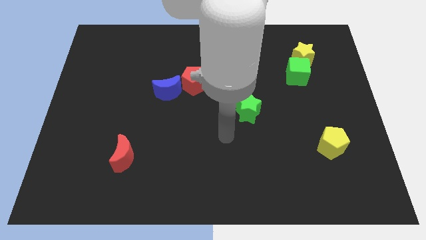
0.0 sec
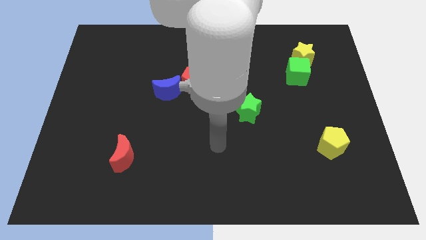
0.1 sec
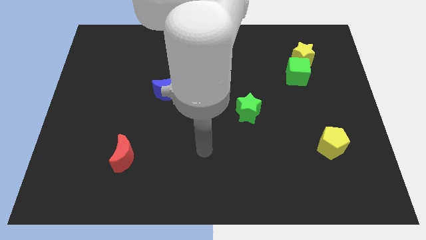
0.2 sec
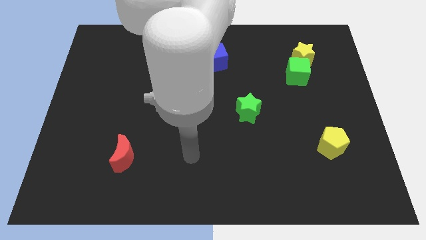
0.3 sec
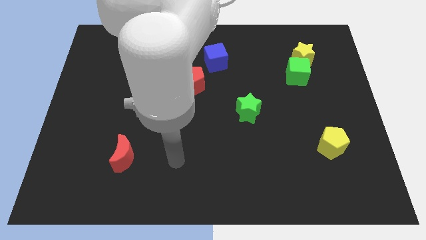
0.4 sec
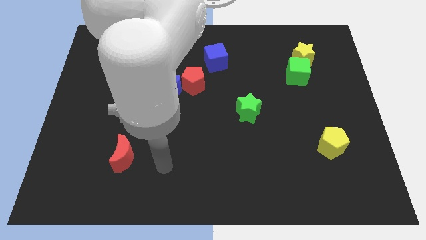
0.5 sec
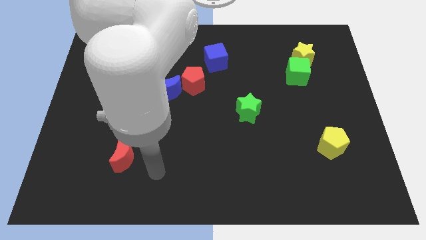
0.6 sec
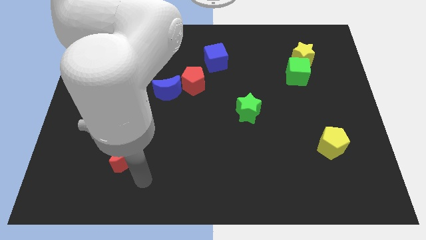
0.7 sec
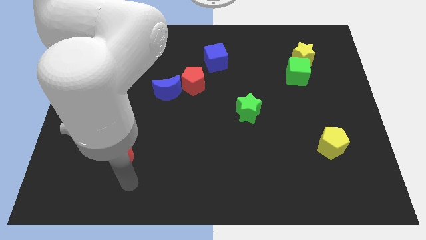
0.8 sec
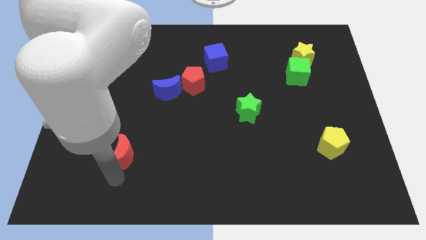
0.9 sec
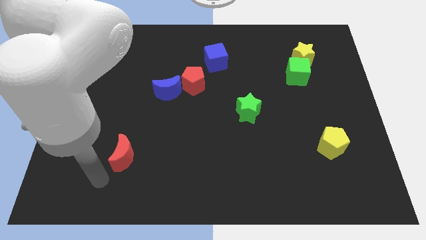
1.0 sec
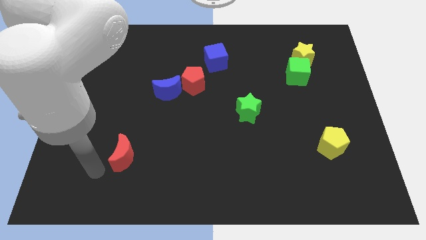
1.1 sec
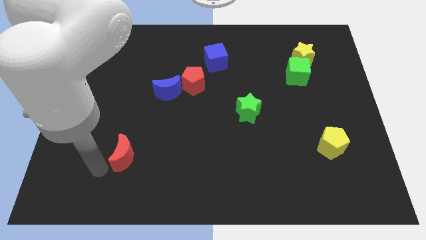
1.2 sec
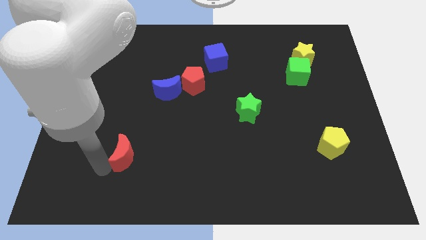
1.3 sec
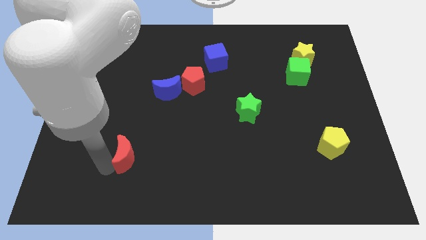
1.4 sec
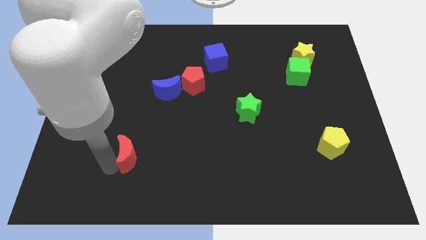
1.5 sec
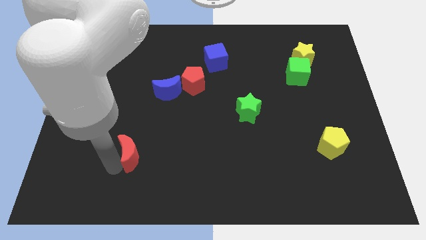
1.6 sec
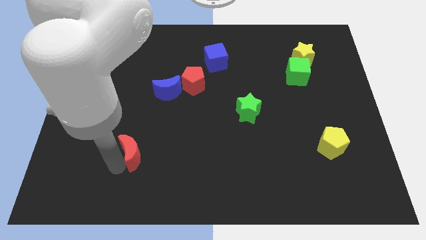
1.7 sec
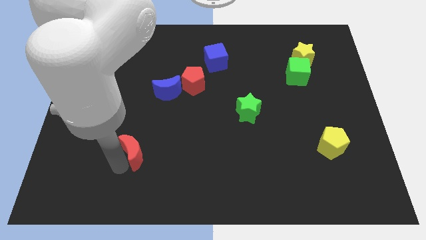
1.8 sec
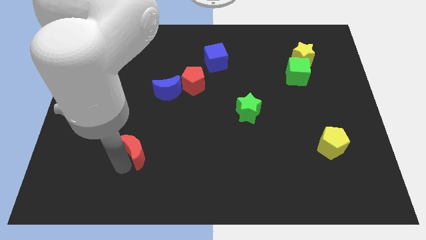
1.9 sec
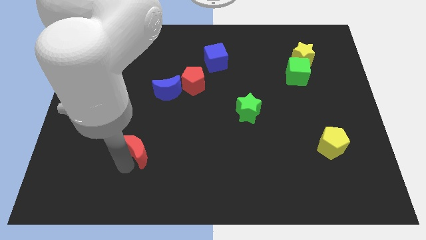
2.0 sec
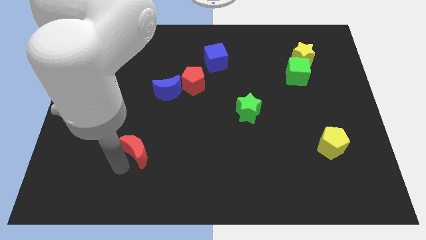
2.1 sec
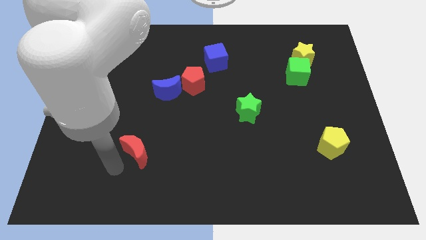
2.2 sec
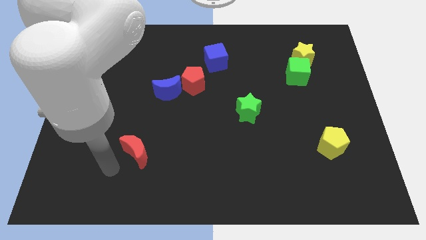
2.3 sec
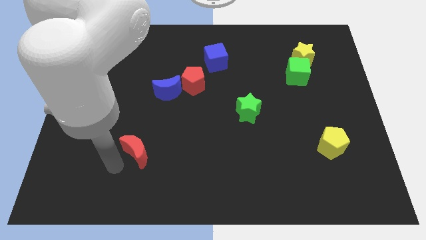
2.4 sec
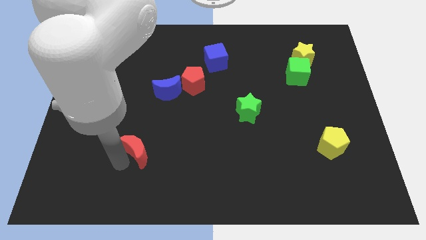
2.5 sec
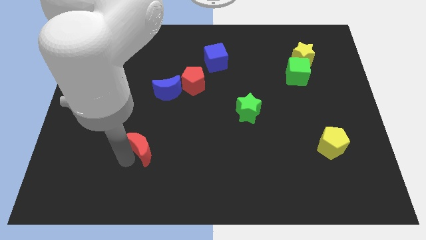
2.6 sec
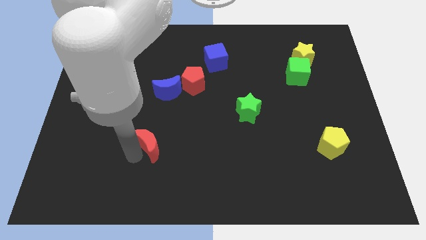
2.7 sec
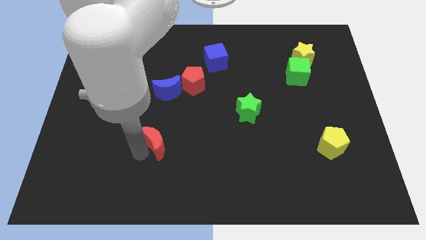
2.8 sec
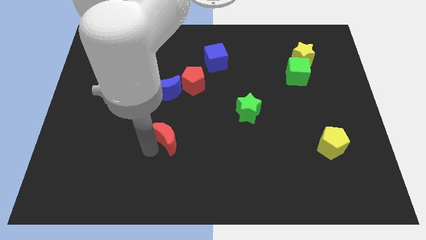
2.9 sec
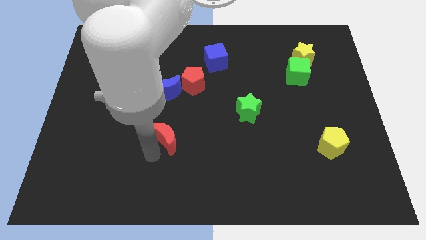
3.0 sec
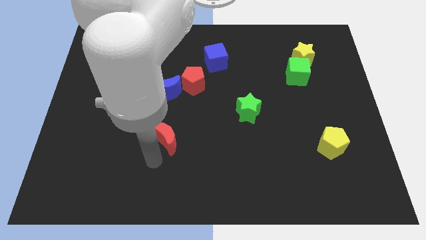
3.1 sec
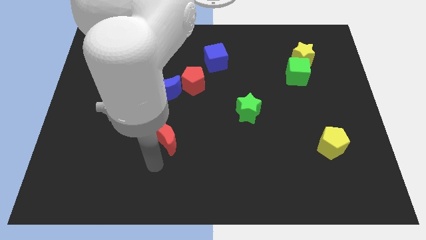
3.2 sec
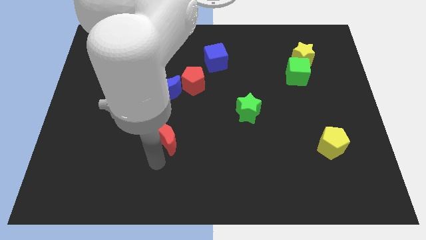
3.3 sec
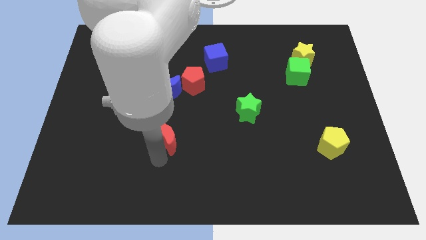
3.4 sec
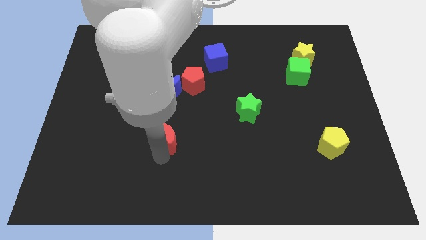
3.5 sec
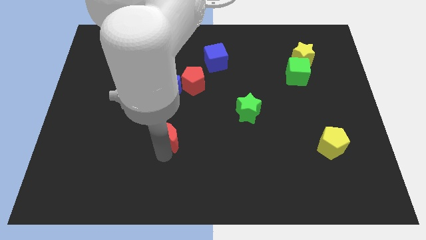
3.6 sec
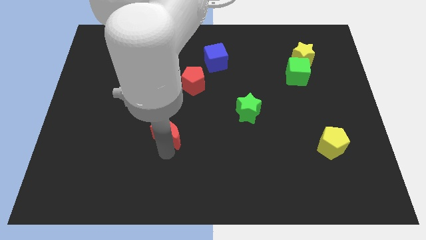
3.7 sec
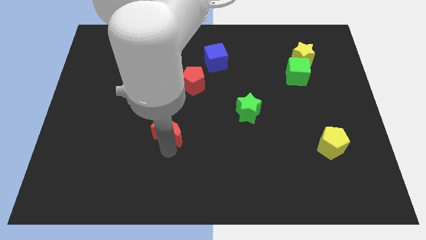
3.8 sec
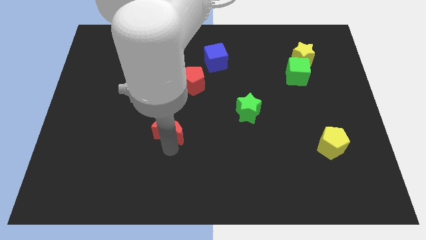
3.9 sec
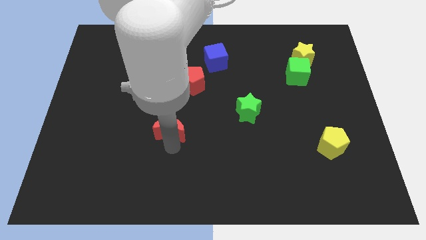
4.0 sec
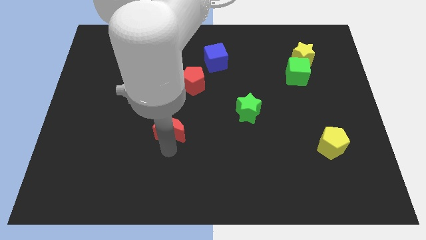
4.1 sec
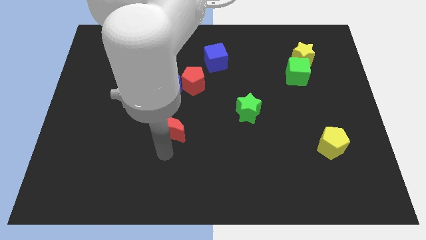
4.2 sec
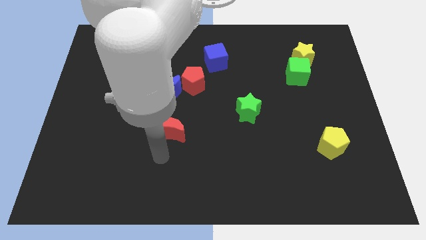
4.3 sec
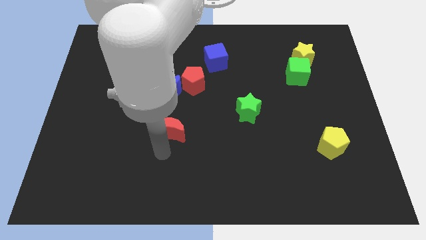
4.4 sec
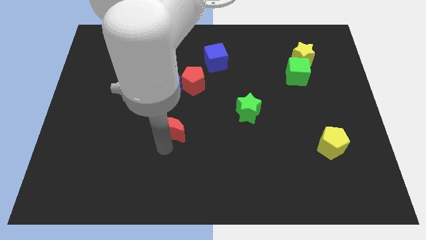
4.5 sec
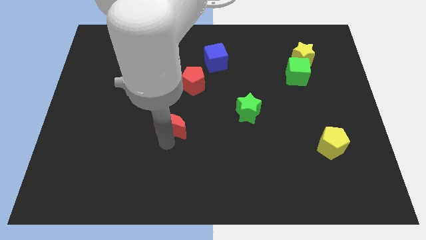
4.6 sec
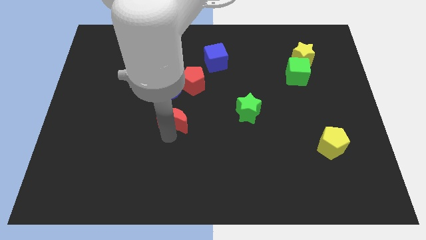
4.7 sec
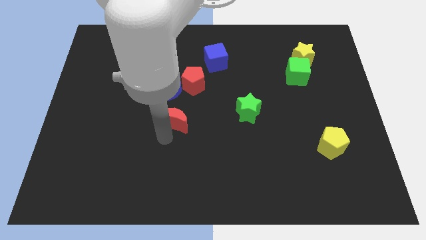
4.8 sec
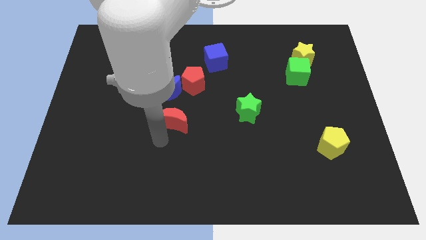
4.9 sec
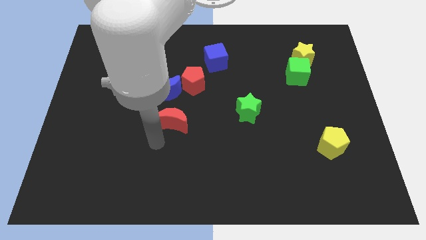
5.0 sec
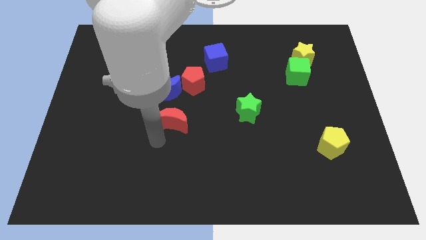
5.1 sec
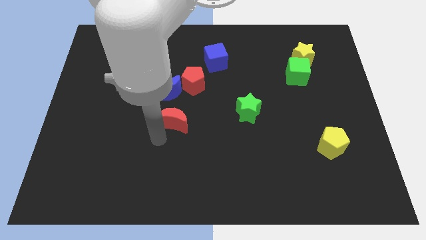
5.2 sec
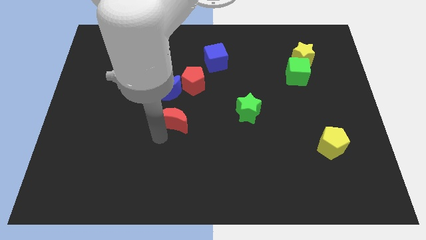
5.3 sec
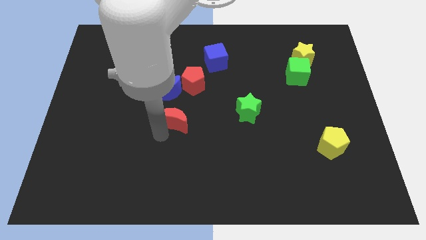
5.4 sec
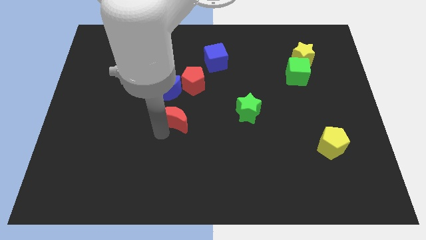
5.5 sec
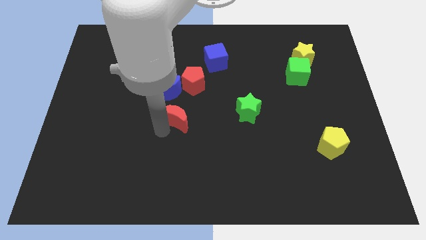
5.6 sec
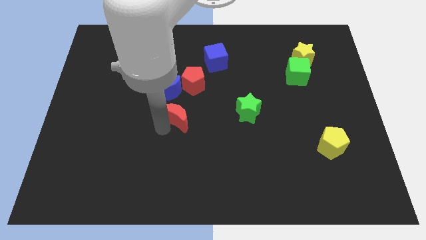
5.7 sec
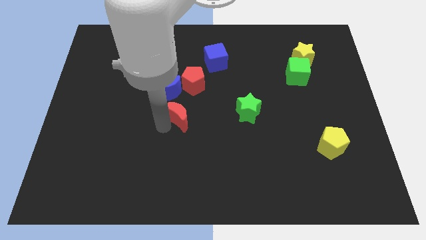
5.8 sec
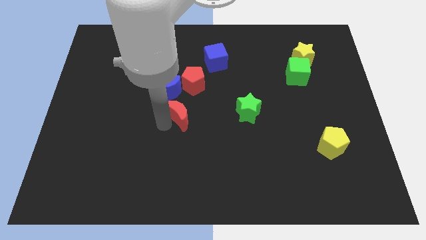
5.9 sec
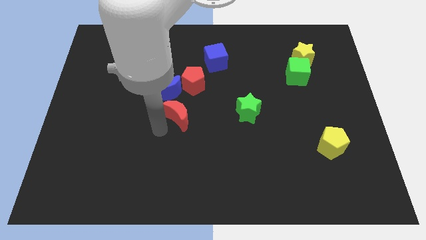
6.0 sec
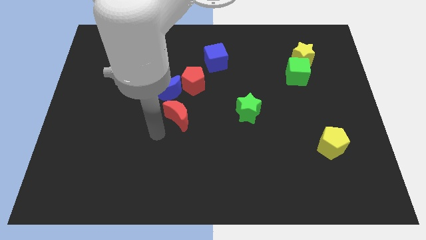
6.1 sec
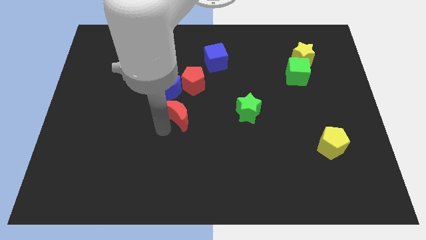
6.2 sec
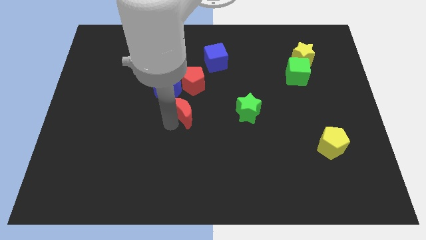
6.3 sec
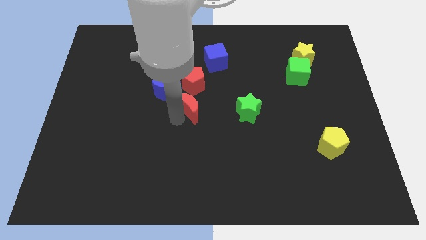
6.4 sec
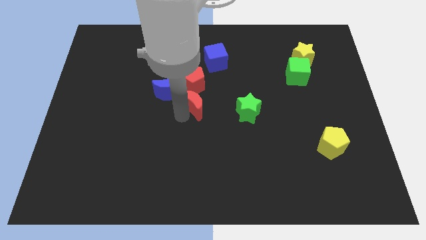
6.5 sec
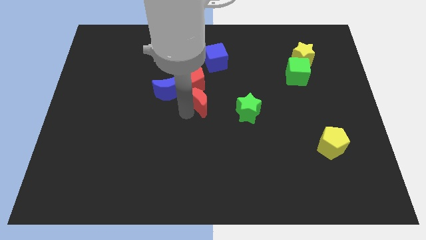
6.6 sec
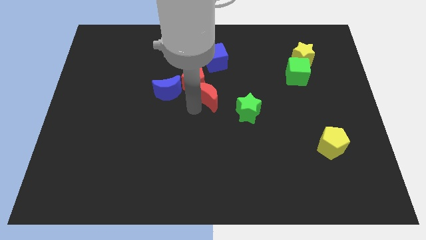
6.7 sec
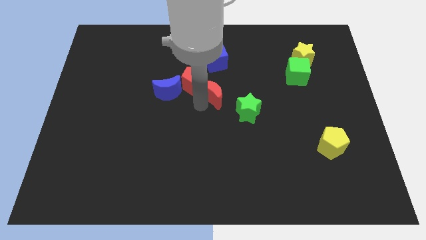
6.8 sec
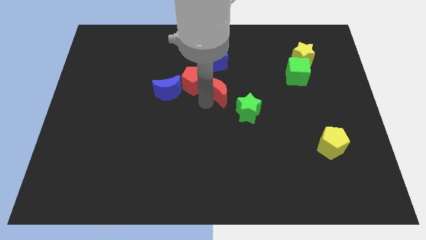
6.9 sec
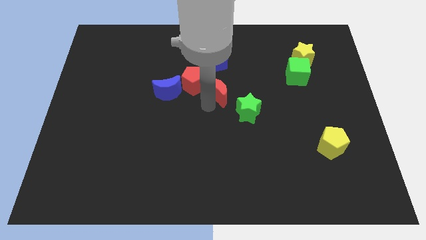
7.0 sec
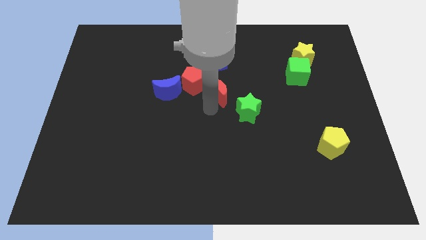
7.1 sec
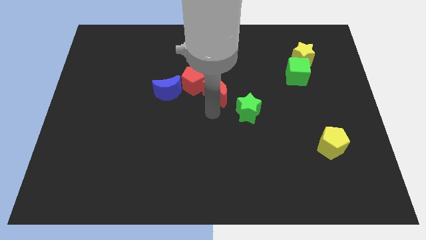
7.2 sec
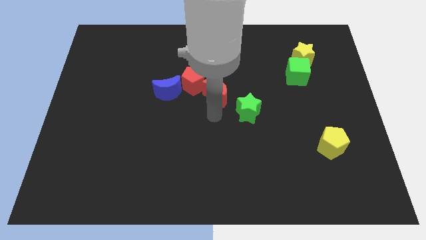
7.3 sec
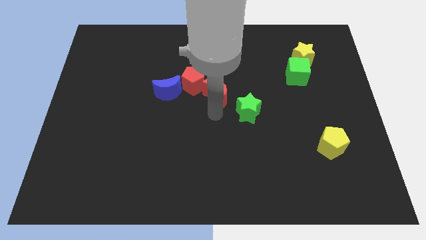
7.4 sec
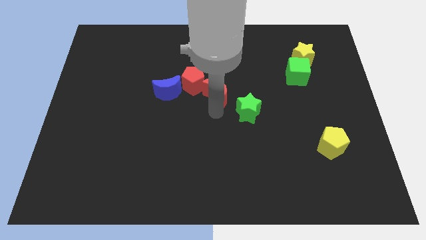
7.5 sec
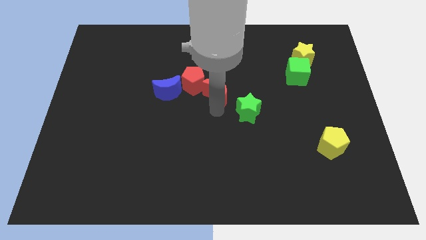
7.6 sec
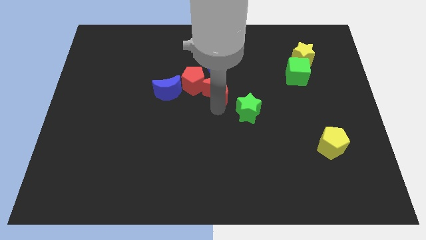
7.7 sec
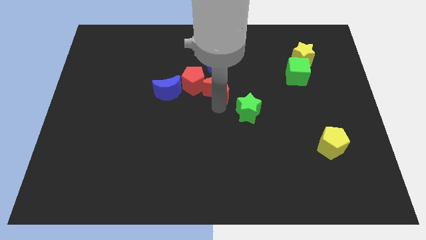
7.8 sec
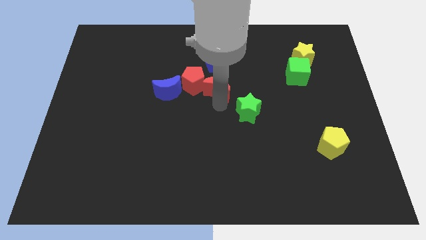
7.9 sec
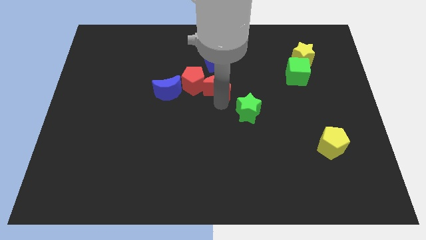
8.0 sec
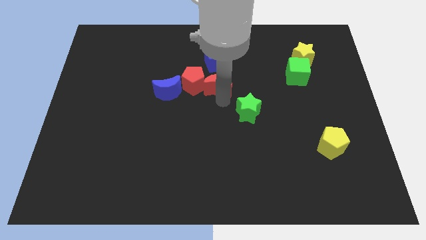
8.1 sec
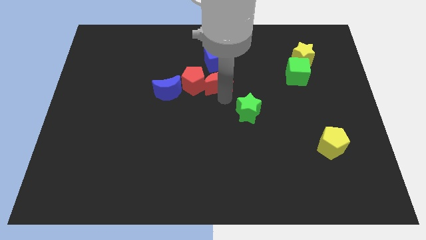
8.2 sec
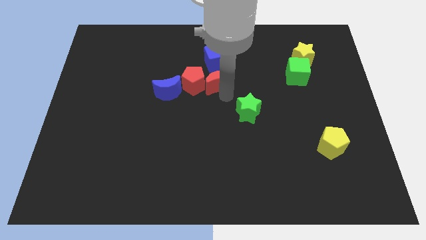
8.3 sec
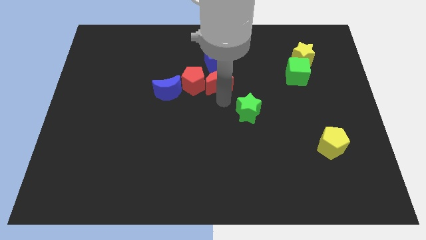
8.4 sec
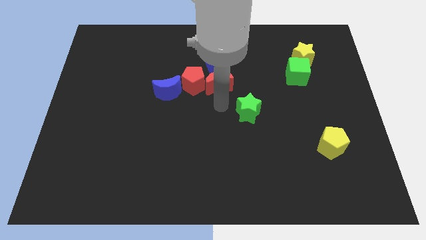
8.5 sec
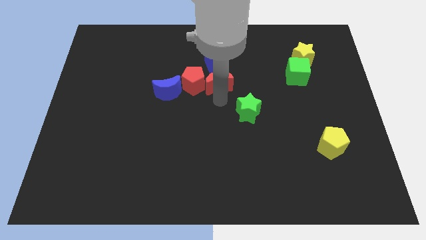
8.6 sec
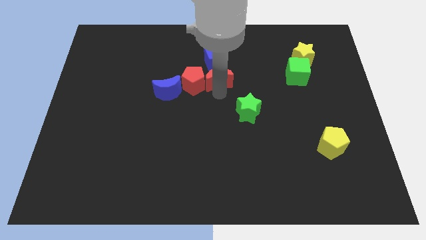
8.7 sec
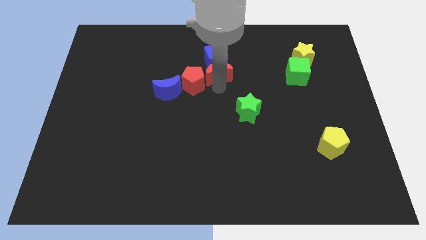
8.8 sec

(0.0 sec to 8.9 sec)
push the red moon next to the blue cube
